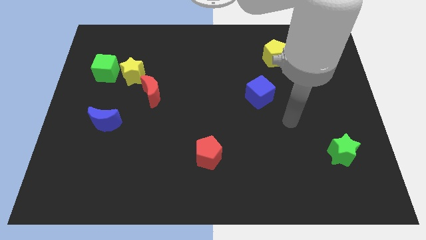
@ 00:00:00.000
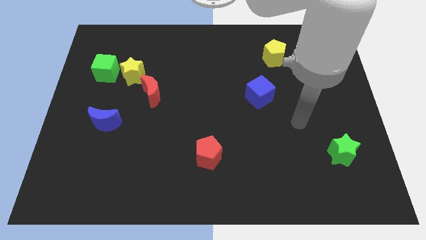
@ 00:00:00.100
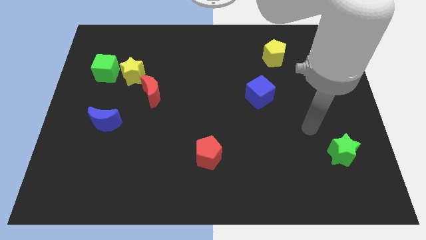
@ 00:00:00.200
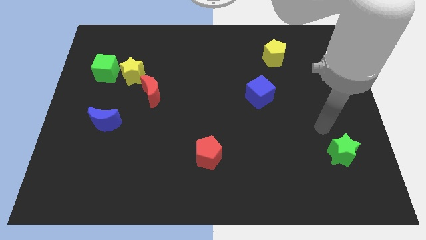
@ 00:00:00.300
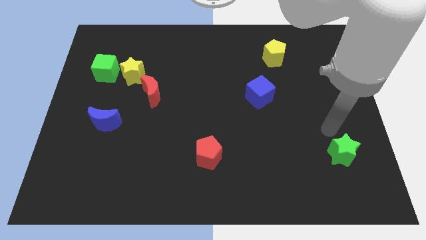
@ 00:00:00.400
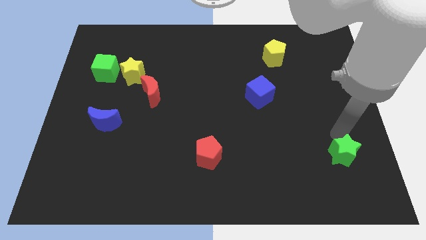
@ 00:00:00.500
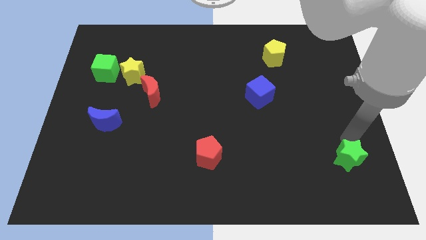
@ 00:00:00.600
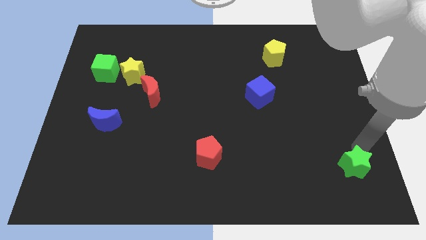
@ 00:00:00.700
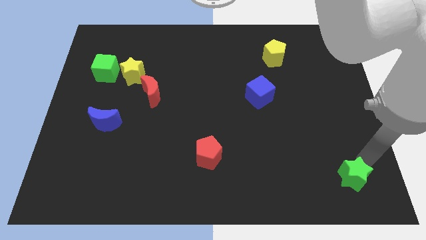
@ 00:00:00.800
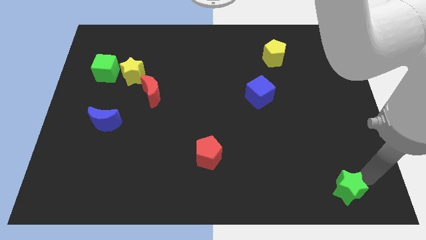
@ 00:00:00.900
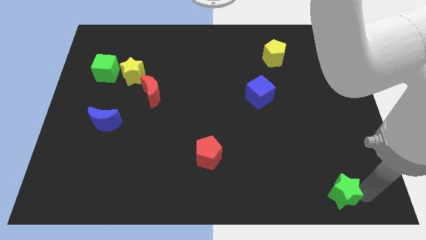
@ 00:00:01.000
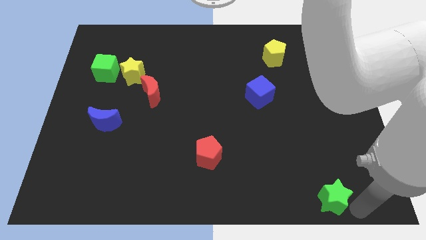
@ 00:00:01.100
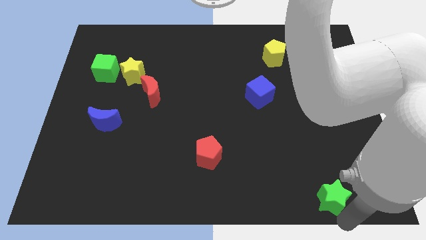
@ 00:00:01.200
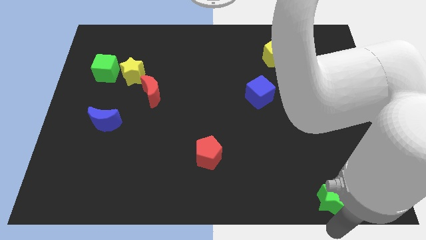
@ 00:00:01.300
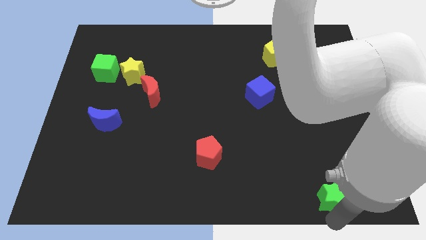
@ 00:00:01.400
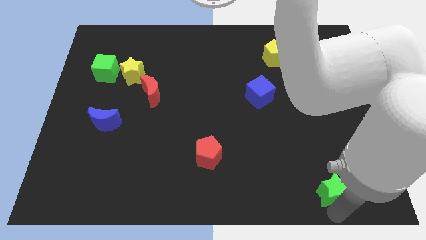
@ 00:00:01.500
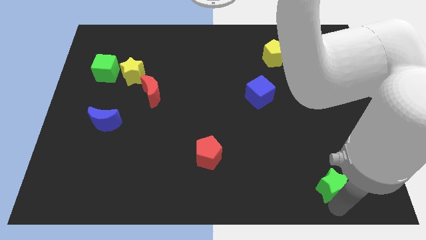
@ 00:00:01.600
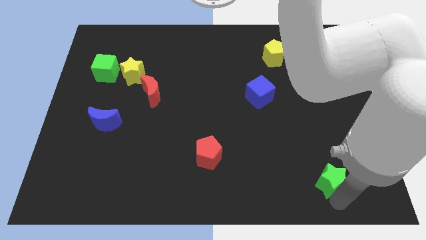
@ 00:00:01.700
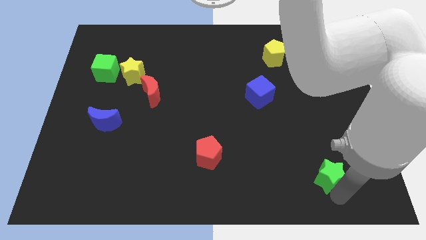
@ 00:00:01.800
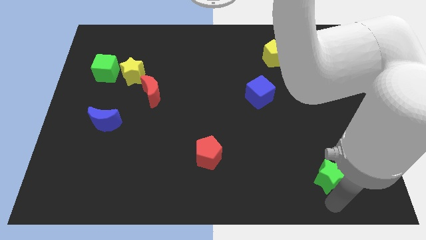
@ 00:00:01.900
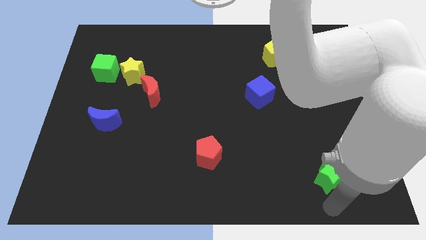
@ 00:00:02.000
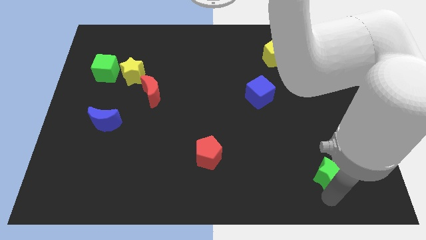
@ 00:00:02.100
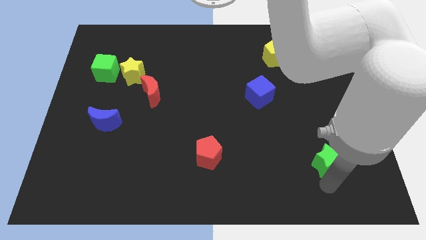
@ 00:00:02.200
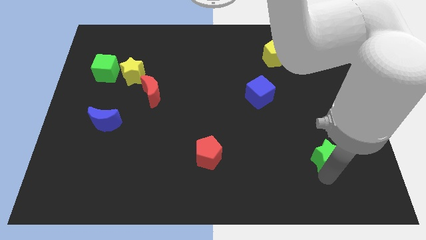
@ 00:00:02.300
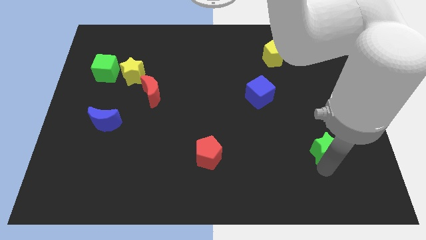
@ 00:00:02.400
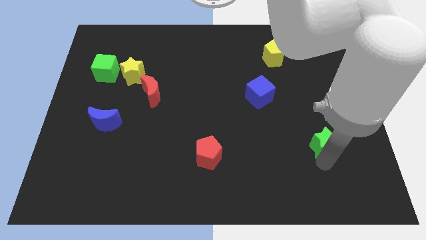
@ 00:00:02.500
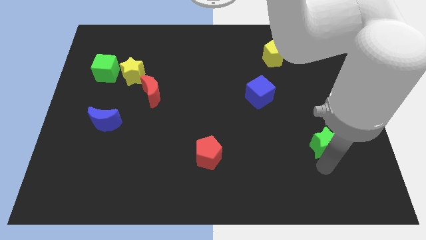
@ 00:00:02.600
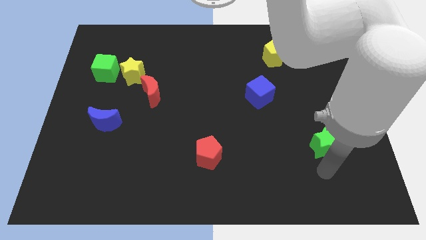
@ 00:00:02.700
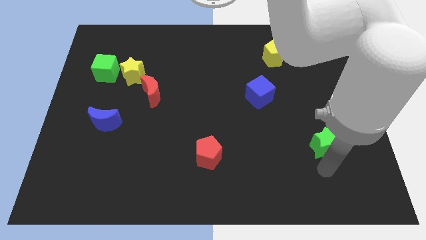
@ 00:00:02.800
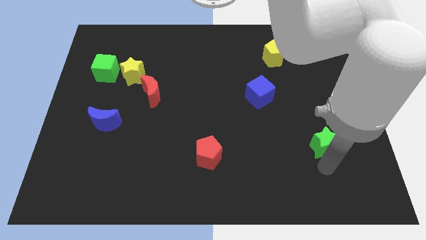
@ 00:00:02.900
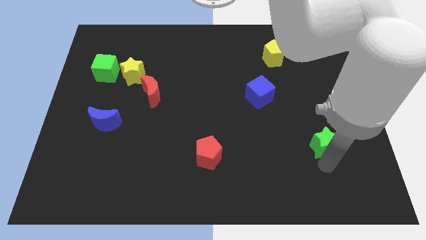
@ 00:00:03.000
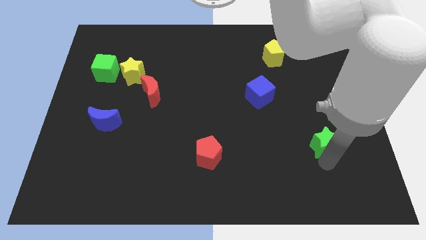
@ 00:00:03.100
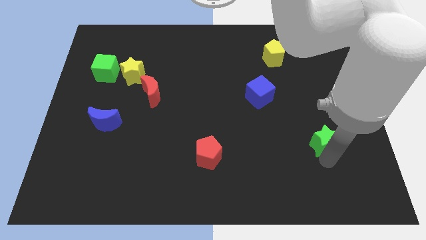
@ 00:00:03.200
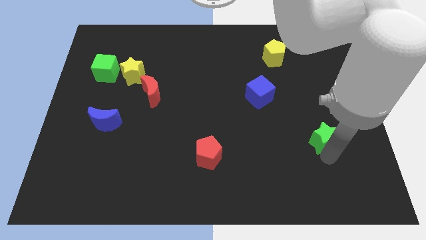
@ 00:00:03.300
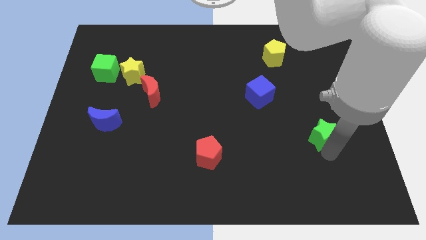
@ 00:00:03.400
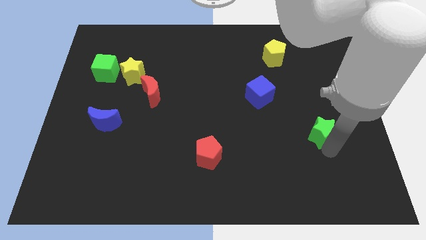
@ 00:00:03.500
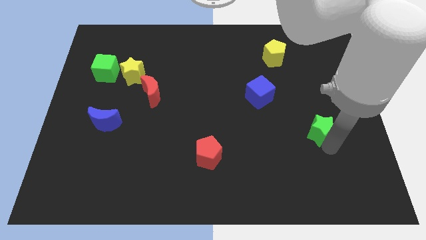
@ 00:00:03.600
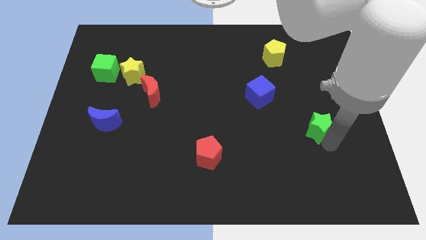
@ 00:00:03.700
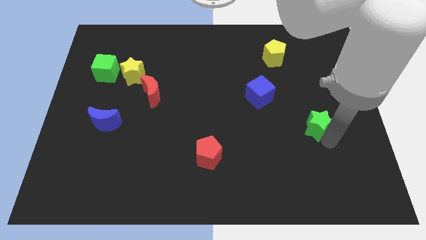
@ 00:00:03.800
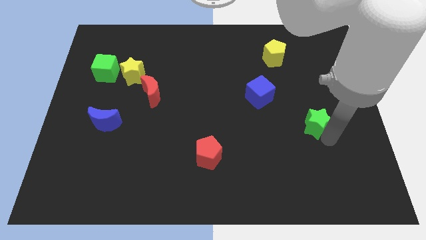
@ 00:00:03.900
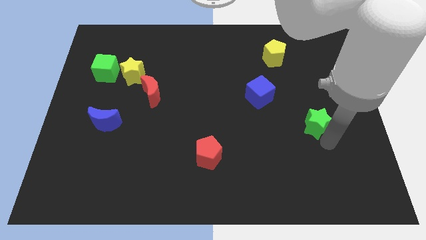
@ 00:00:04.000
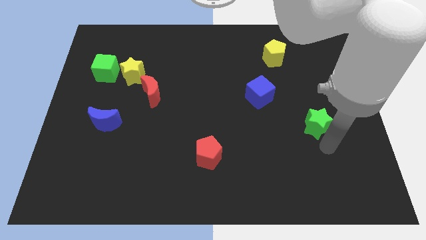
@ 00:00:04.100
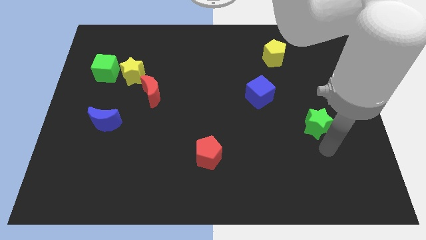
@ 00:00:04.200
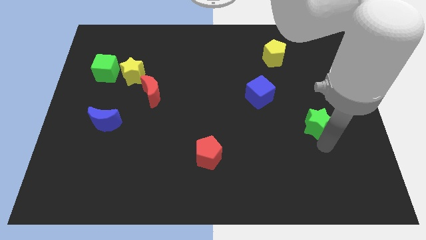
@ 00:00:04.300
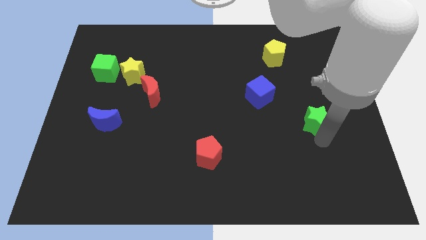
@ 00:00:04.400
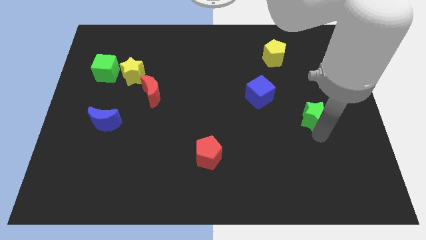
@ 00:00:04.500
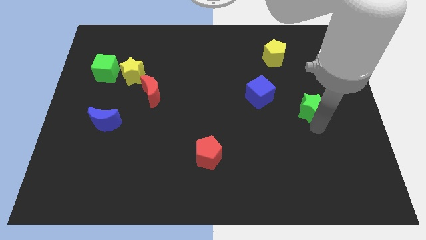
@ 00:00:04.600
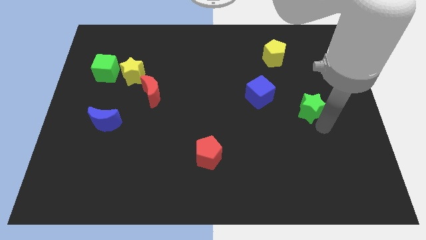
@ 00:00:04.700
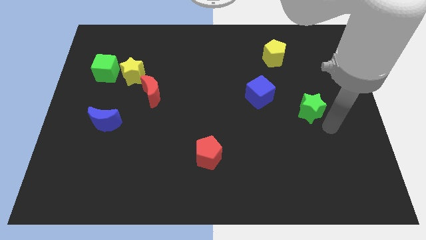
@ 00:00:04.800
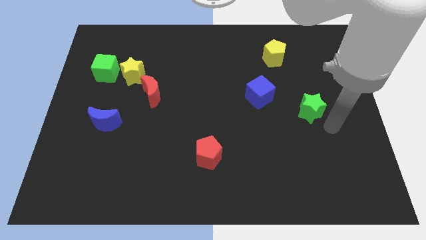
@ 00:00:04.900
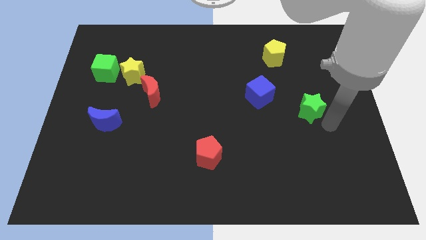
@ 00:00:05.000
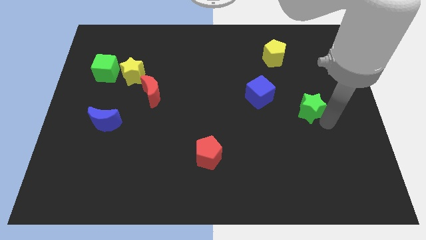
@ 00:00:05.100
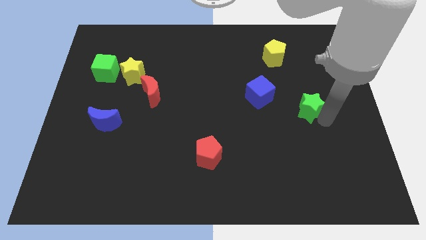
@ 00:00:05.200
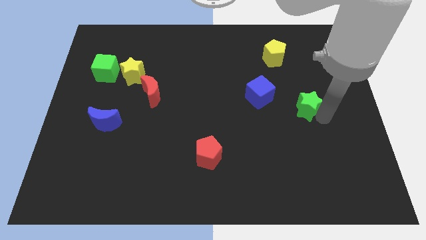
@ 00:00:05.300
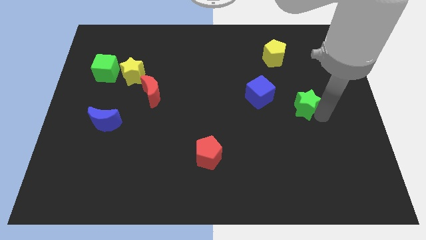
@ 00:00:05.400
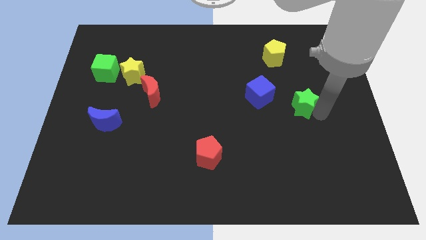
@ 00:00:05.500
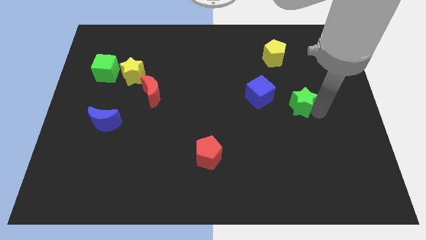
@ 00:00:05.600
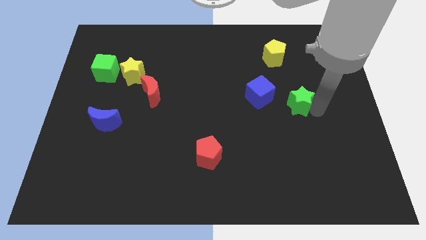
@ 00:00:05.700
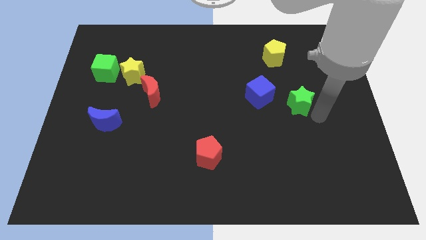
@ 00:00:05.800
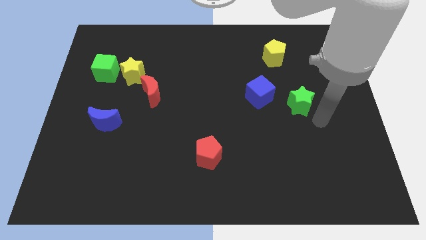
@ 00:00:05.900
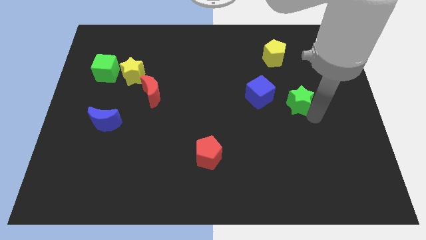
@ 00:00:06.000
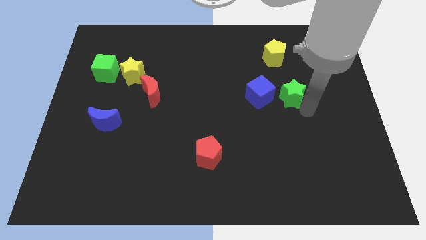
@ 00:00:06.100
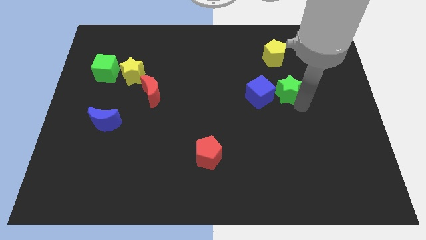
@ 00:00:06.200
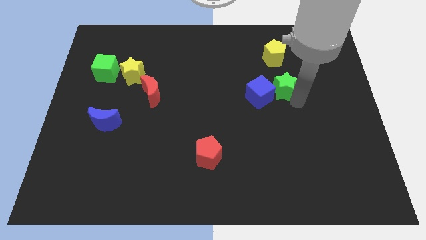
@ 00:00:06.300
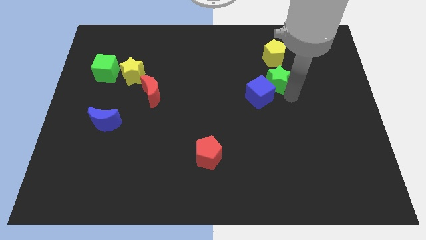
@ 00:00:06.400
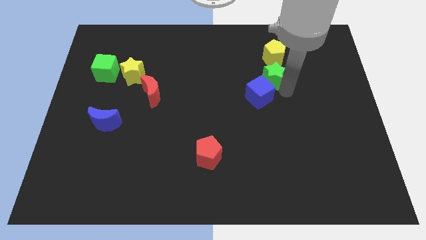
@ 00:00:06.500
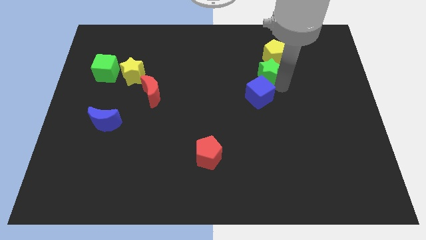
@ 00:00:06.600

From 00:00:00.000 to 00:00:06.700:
move the green star to the bottom left of the yellow pentagon
